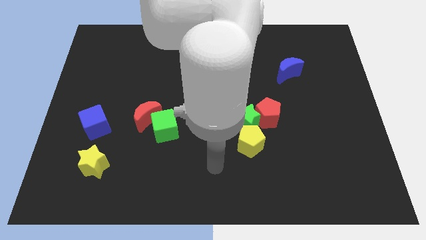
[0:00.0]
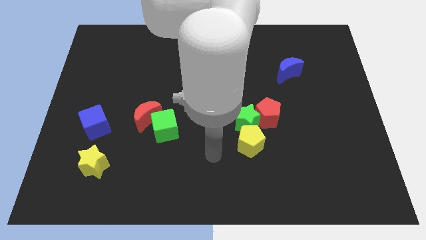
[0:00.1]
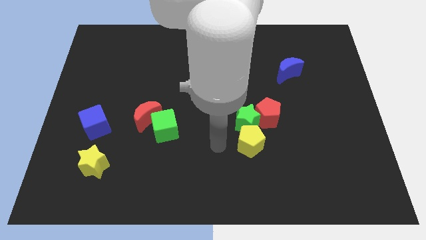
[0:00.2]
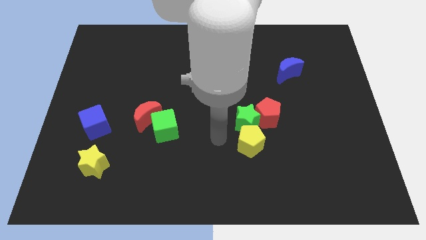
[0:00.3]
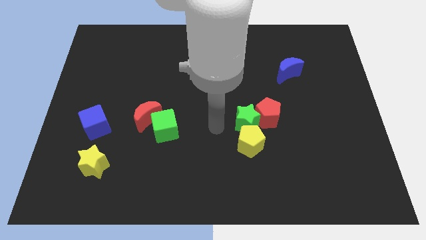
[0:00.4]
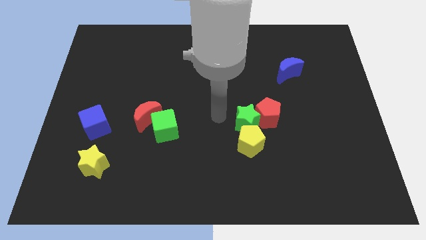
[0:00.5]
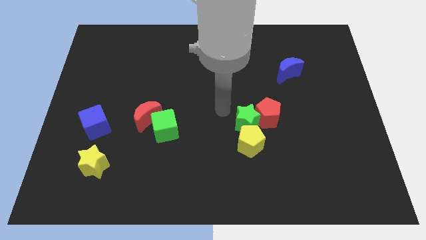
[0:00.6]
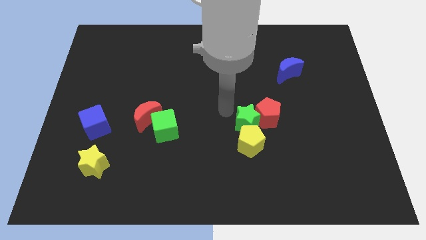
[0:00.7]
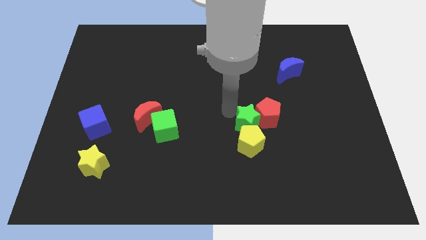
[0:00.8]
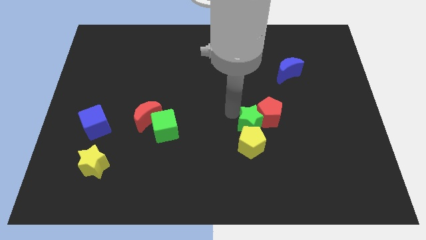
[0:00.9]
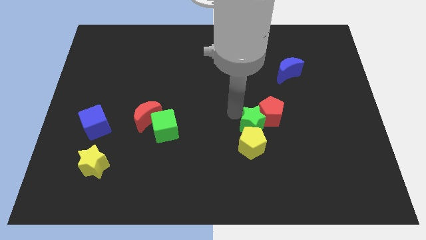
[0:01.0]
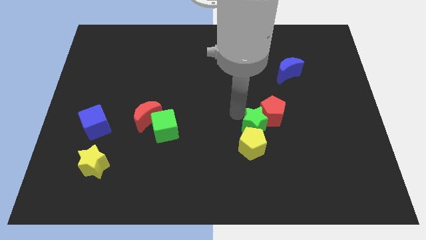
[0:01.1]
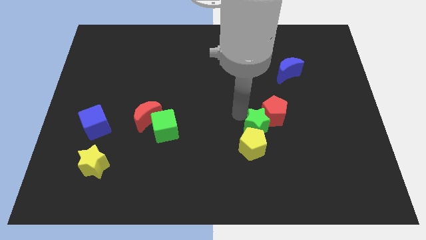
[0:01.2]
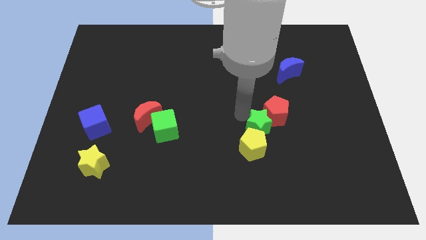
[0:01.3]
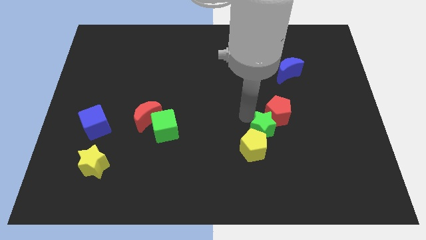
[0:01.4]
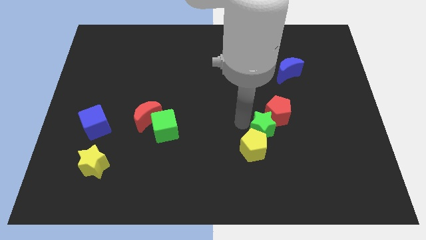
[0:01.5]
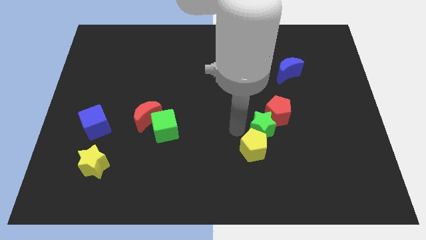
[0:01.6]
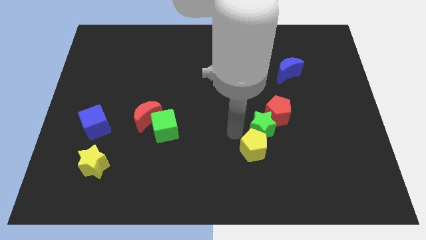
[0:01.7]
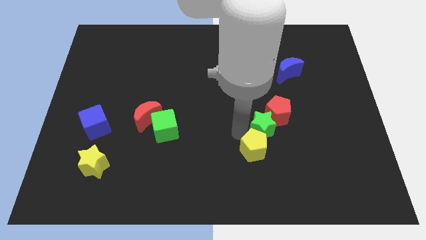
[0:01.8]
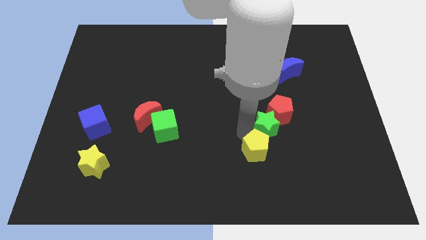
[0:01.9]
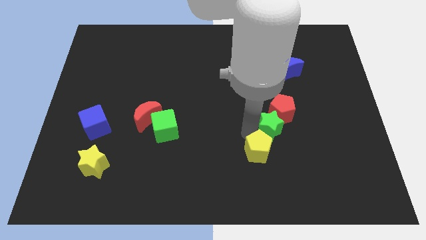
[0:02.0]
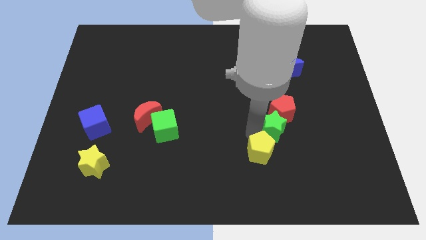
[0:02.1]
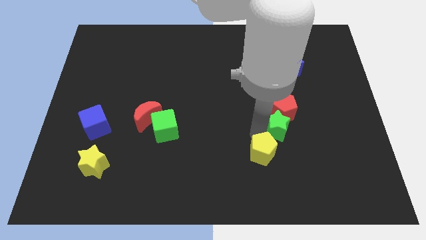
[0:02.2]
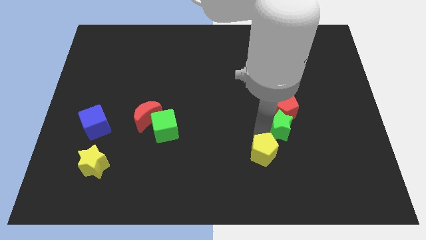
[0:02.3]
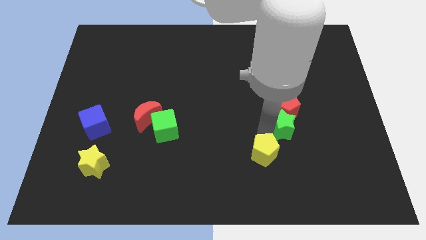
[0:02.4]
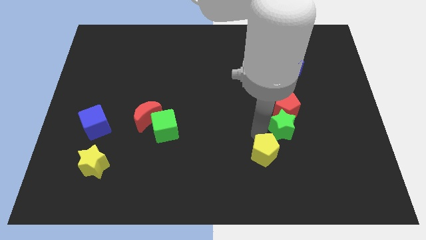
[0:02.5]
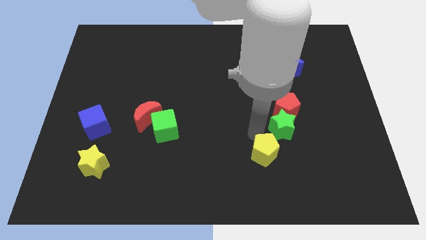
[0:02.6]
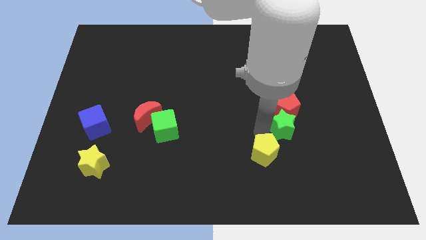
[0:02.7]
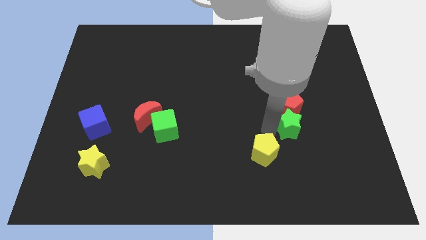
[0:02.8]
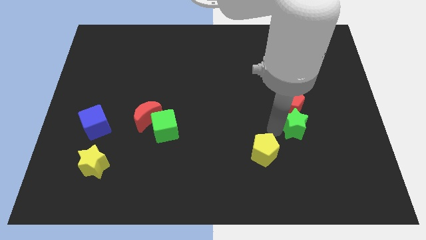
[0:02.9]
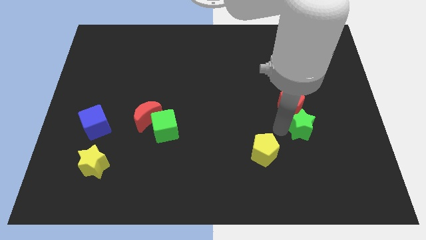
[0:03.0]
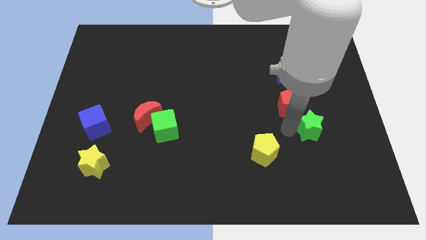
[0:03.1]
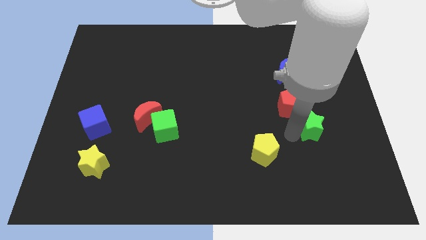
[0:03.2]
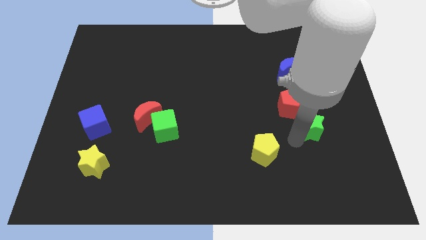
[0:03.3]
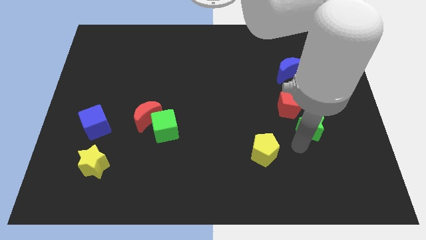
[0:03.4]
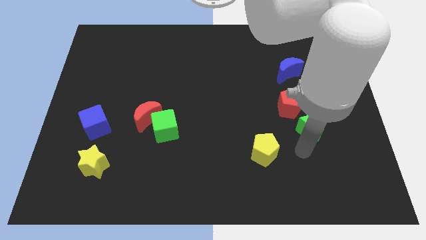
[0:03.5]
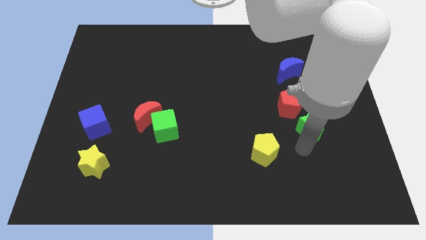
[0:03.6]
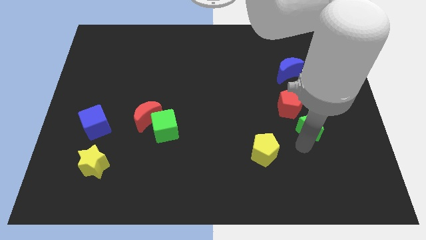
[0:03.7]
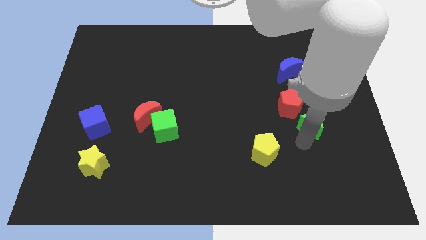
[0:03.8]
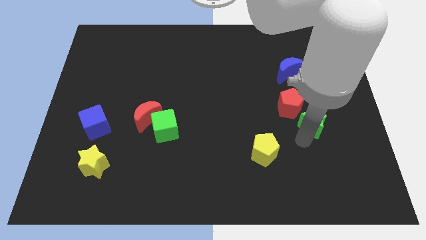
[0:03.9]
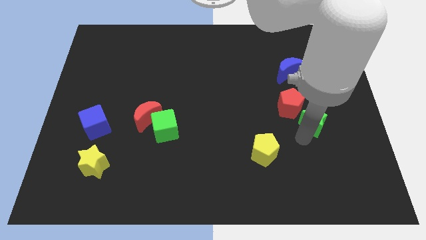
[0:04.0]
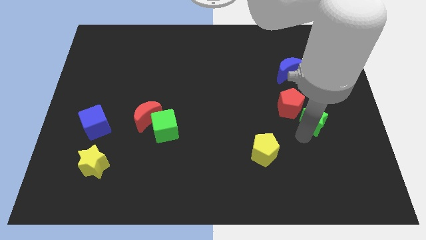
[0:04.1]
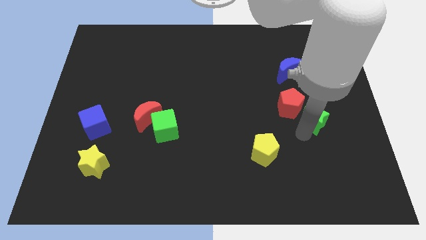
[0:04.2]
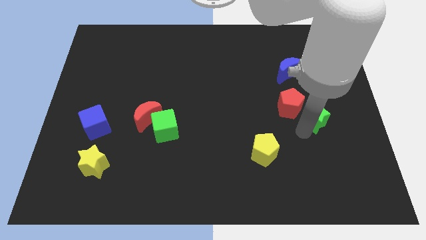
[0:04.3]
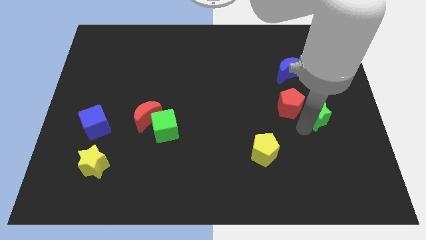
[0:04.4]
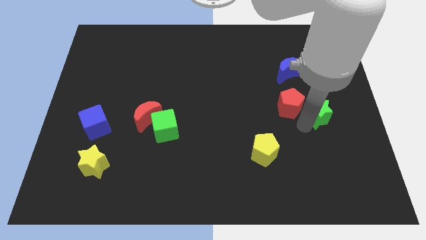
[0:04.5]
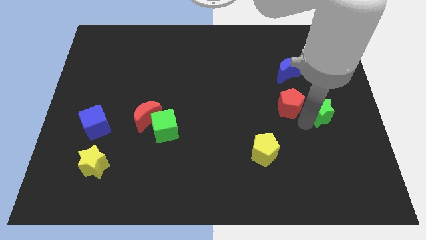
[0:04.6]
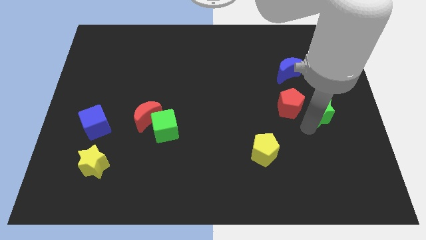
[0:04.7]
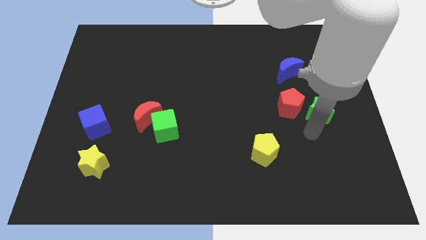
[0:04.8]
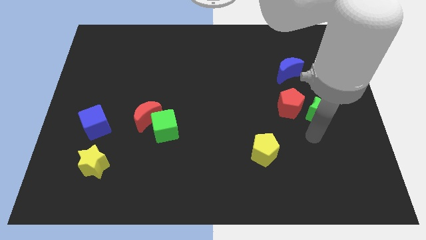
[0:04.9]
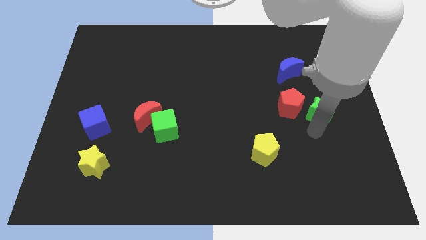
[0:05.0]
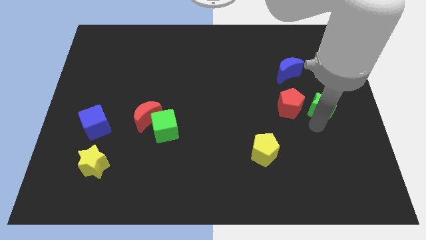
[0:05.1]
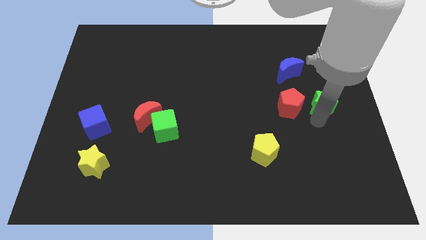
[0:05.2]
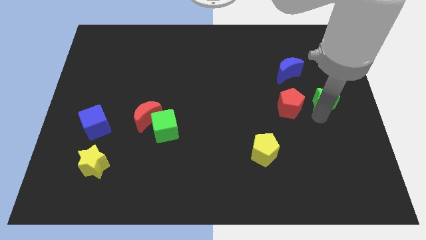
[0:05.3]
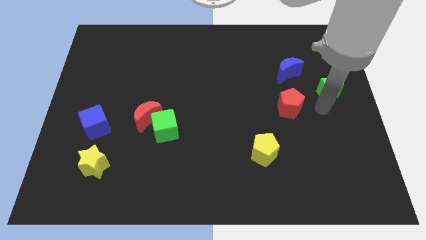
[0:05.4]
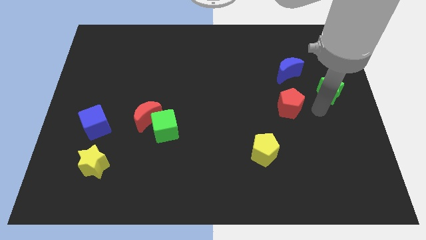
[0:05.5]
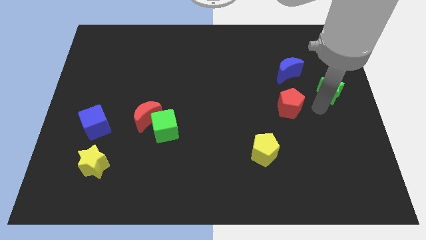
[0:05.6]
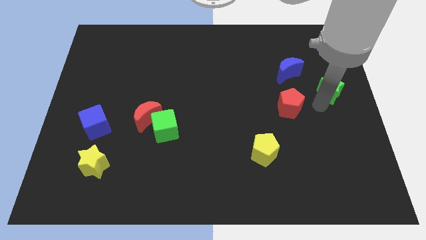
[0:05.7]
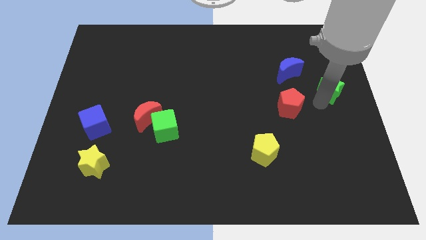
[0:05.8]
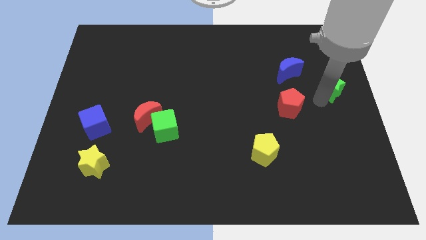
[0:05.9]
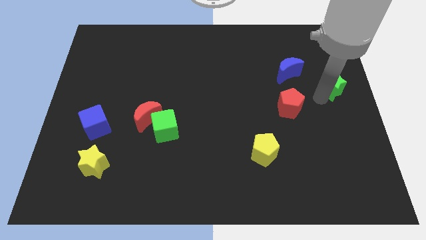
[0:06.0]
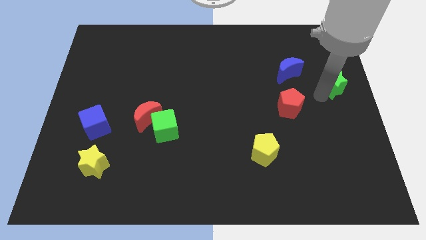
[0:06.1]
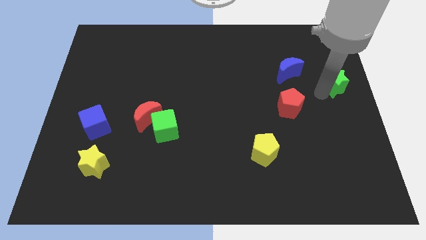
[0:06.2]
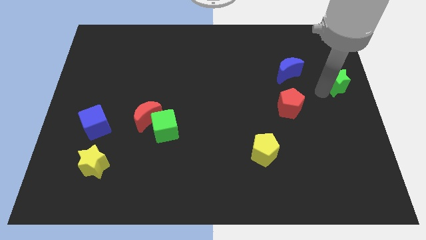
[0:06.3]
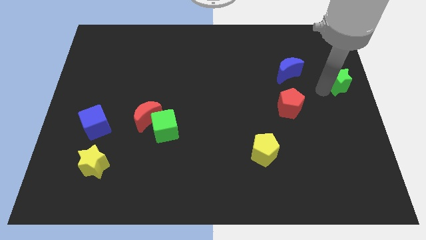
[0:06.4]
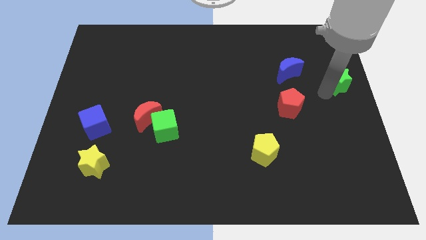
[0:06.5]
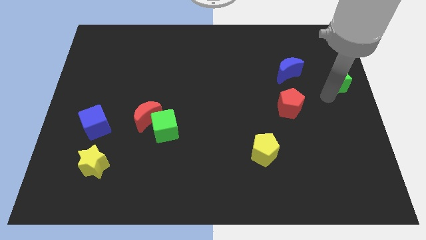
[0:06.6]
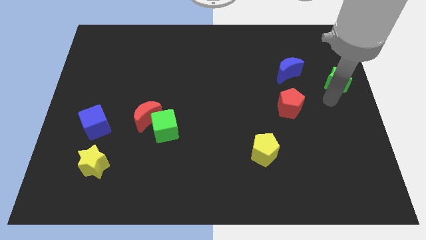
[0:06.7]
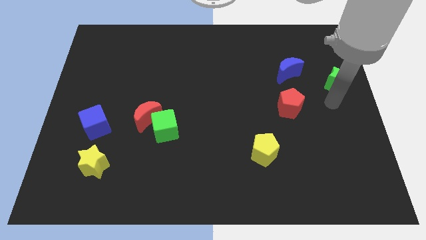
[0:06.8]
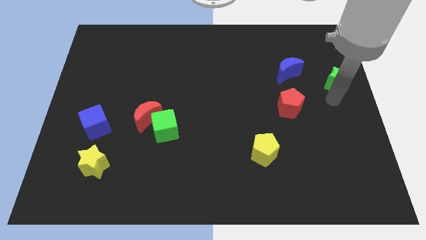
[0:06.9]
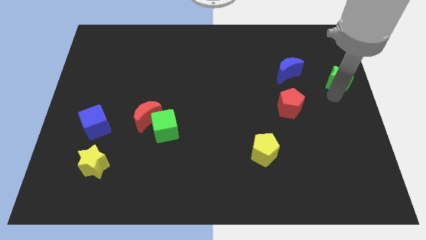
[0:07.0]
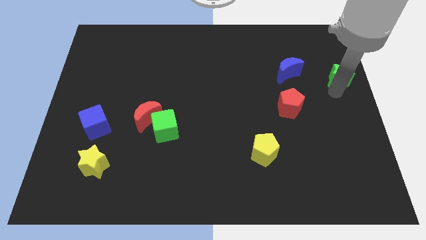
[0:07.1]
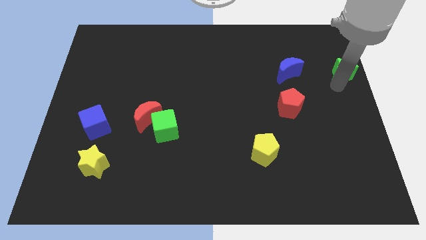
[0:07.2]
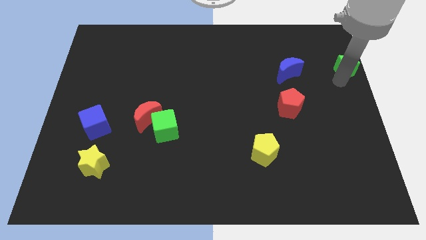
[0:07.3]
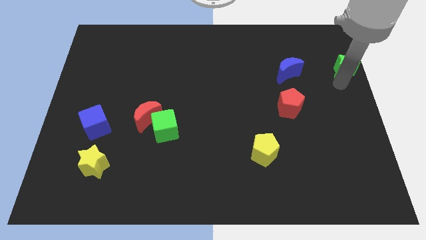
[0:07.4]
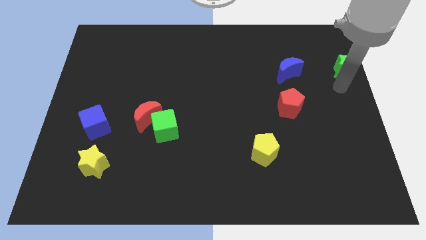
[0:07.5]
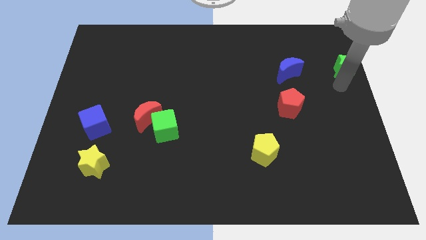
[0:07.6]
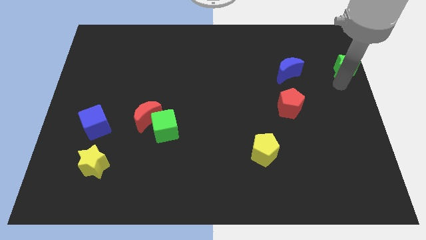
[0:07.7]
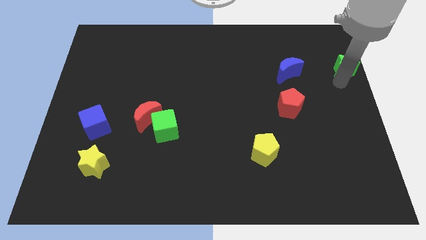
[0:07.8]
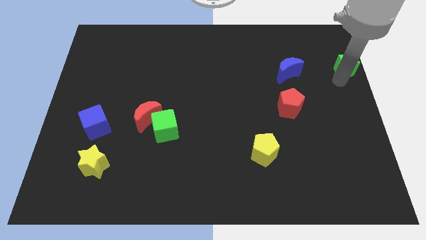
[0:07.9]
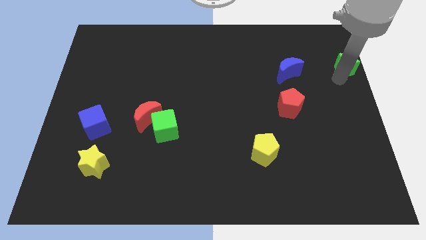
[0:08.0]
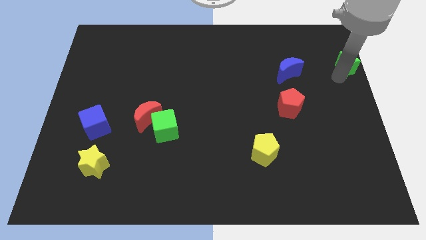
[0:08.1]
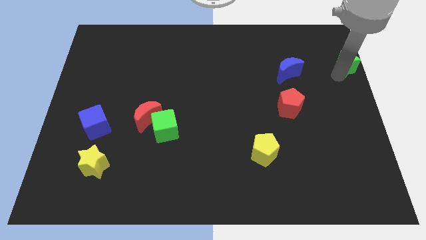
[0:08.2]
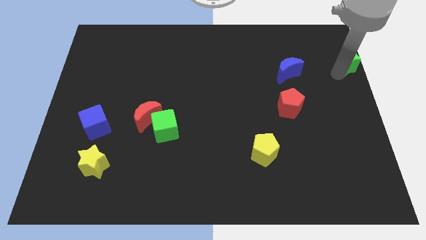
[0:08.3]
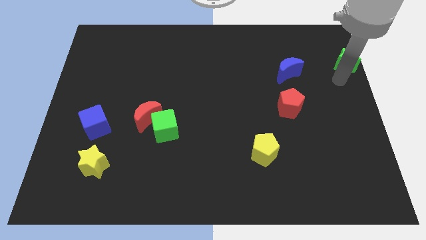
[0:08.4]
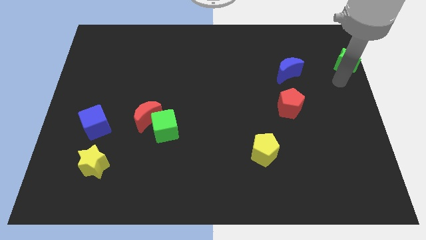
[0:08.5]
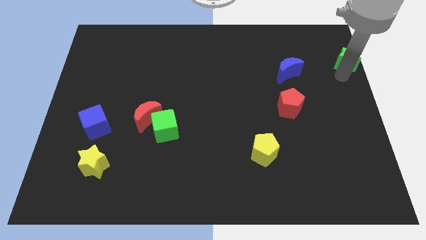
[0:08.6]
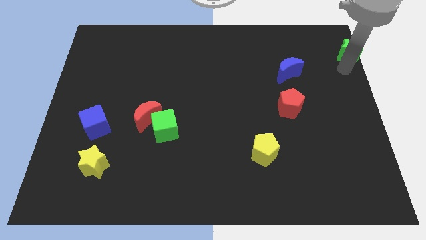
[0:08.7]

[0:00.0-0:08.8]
slide the green star to the top right of the board
